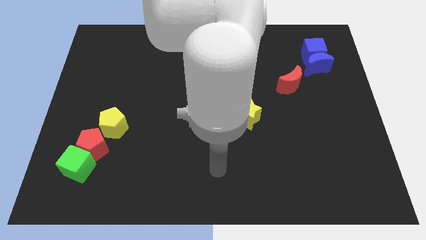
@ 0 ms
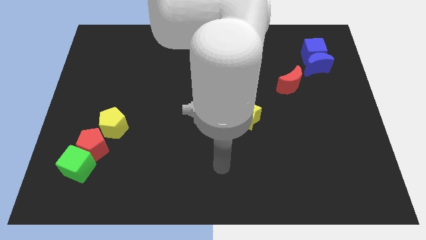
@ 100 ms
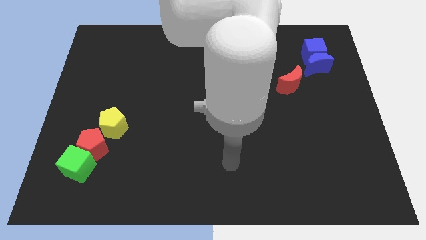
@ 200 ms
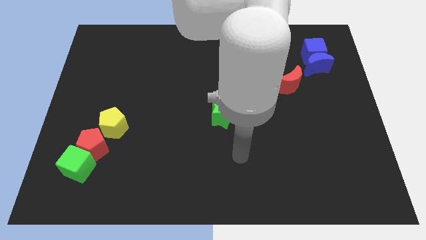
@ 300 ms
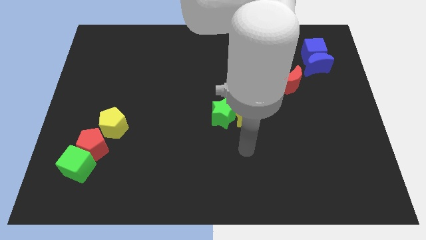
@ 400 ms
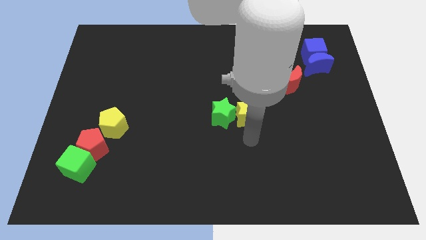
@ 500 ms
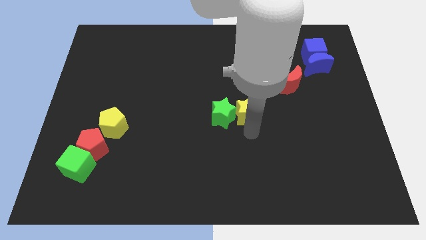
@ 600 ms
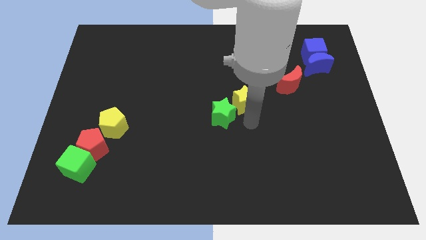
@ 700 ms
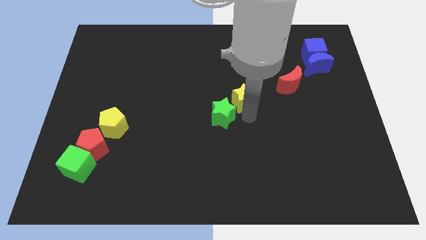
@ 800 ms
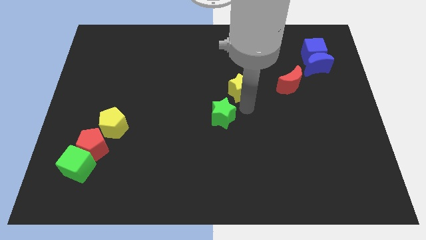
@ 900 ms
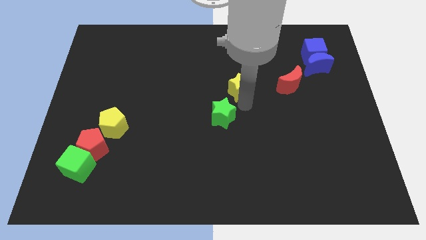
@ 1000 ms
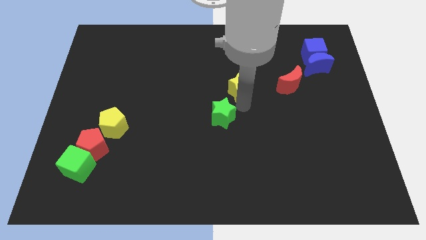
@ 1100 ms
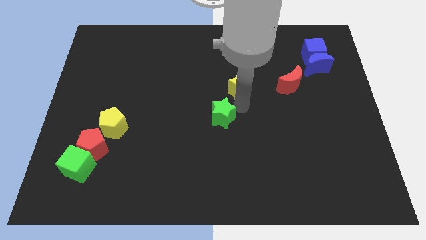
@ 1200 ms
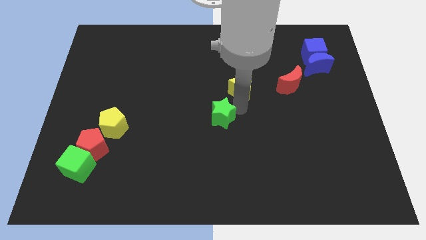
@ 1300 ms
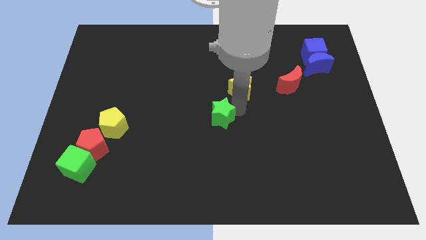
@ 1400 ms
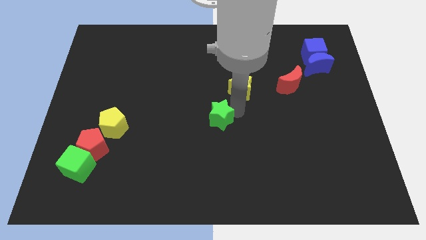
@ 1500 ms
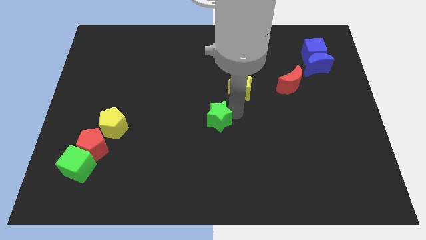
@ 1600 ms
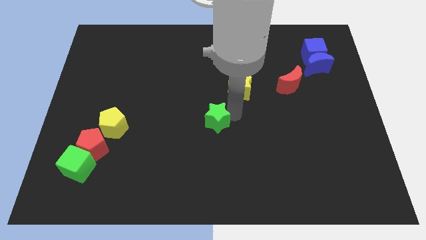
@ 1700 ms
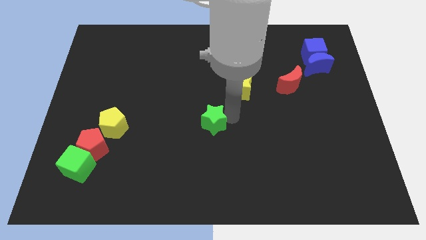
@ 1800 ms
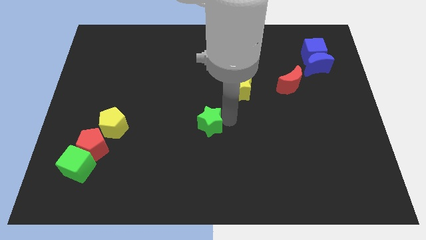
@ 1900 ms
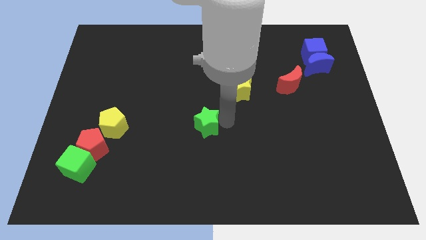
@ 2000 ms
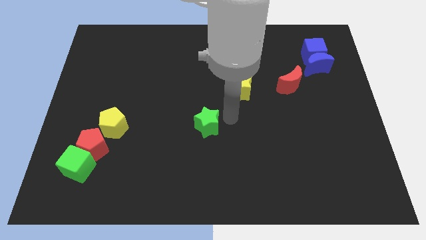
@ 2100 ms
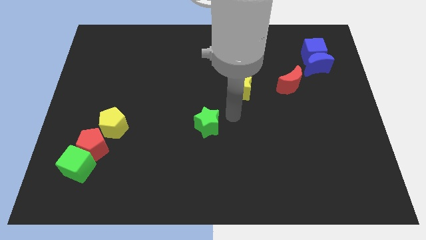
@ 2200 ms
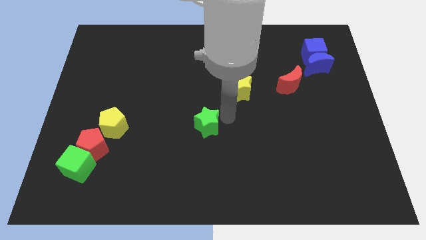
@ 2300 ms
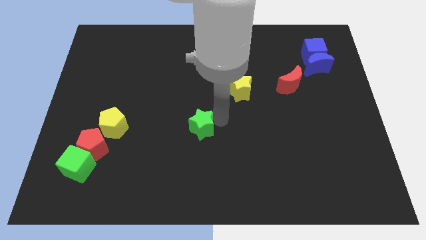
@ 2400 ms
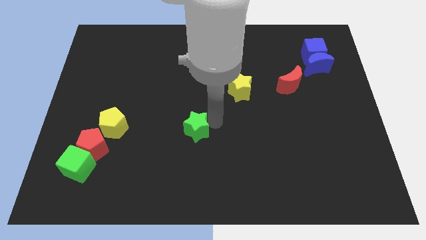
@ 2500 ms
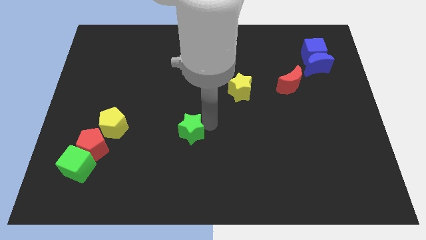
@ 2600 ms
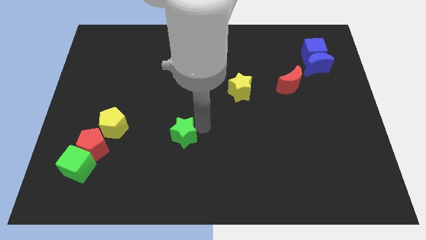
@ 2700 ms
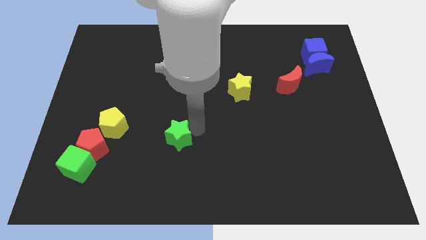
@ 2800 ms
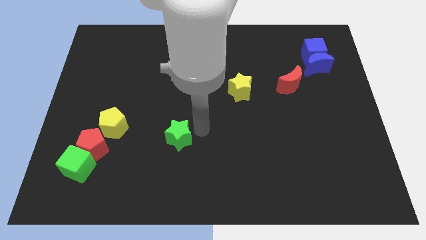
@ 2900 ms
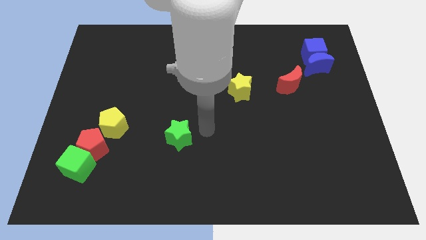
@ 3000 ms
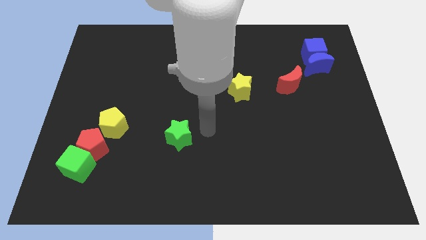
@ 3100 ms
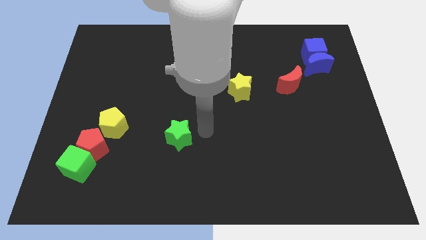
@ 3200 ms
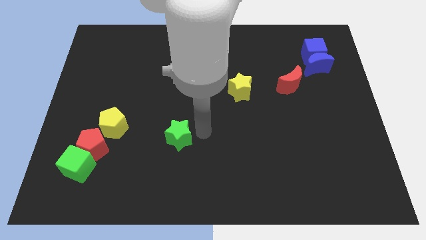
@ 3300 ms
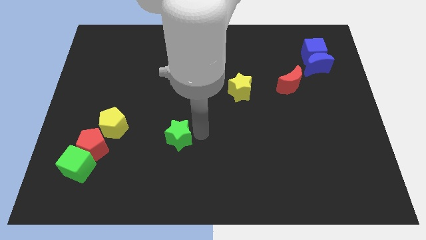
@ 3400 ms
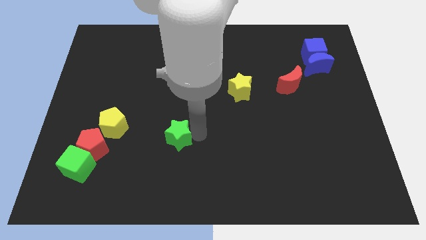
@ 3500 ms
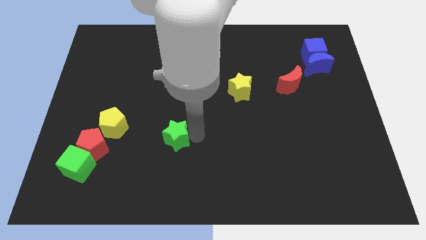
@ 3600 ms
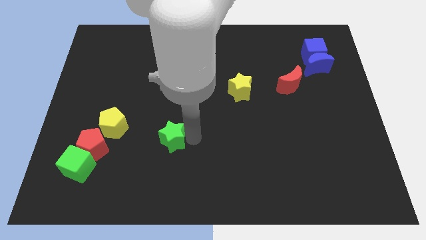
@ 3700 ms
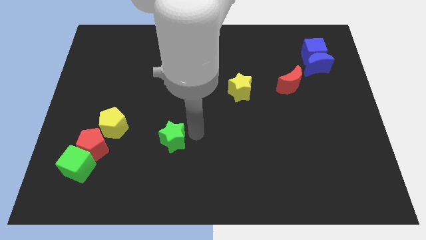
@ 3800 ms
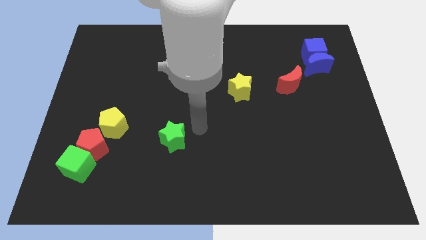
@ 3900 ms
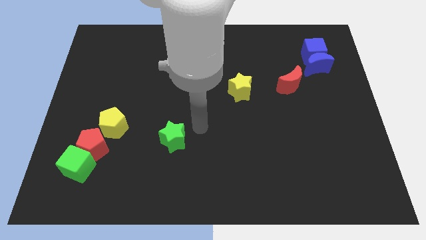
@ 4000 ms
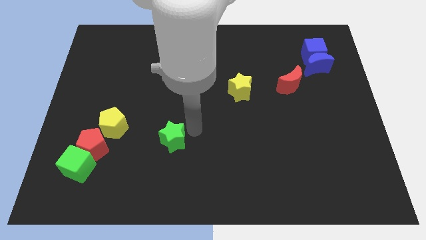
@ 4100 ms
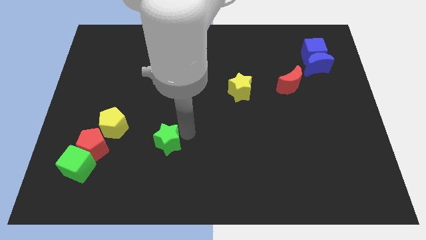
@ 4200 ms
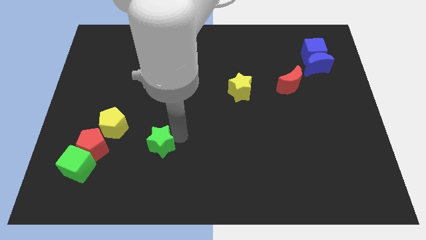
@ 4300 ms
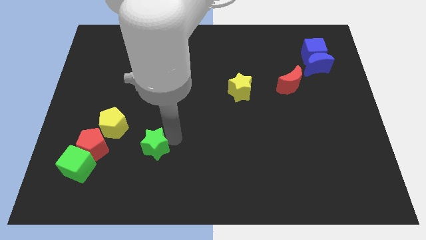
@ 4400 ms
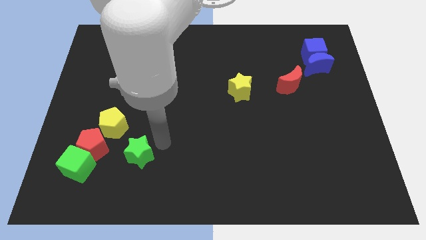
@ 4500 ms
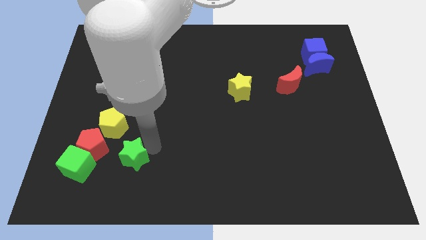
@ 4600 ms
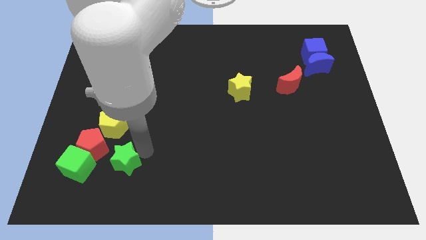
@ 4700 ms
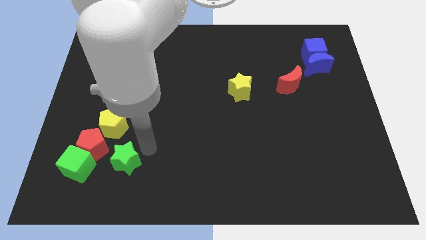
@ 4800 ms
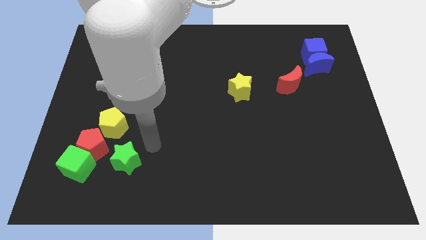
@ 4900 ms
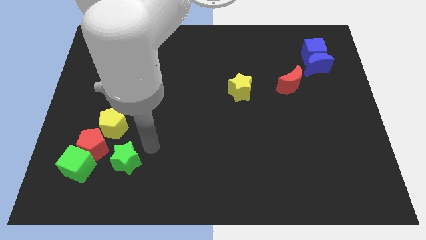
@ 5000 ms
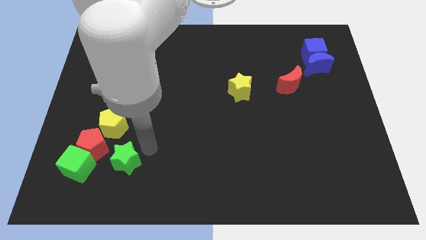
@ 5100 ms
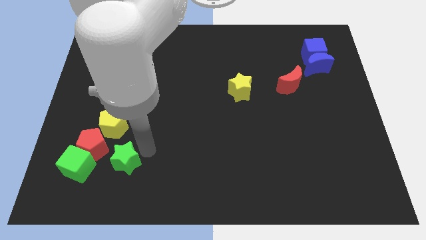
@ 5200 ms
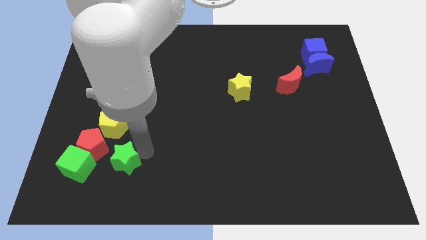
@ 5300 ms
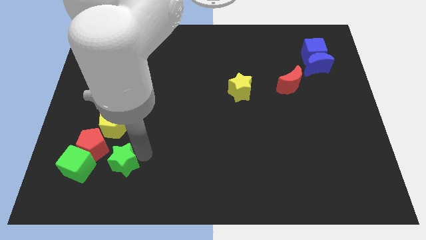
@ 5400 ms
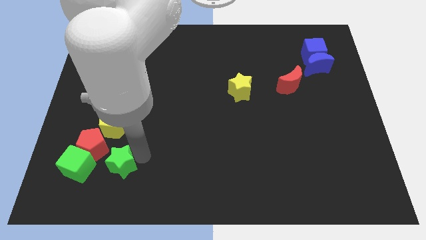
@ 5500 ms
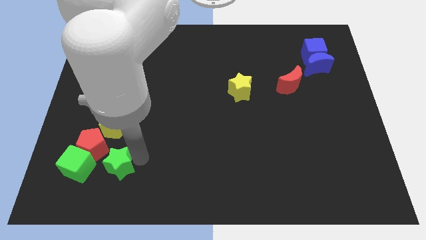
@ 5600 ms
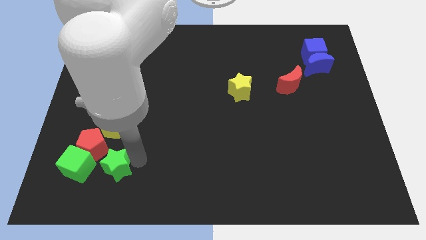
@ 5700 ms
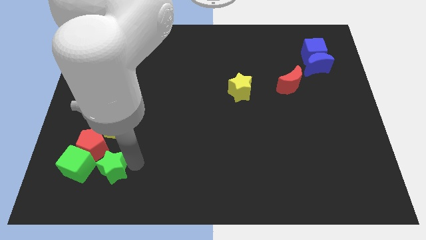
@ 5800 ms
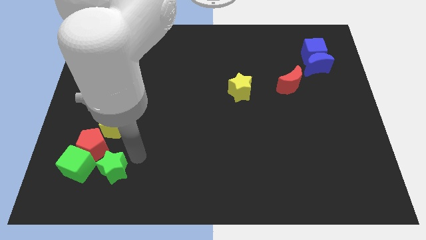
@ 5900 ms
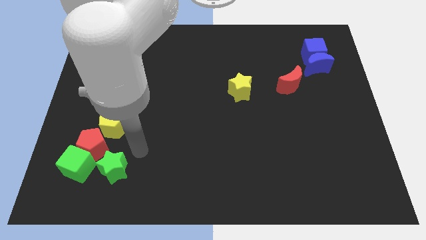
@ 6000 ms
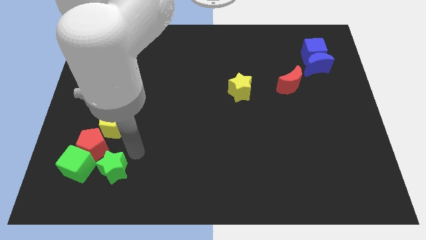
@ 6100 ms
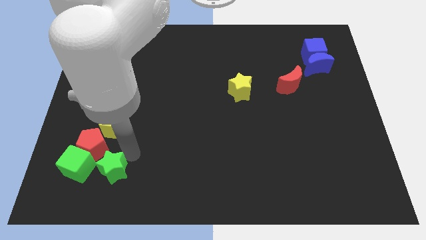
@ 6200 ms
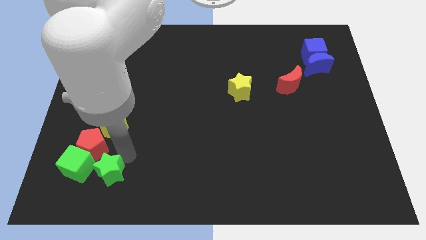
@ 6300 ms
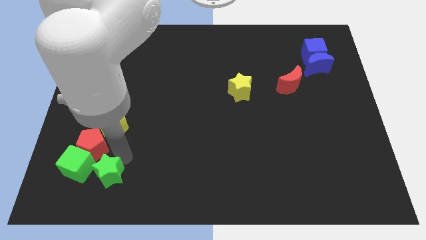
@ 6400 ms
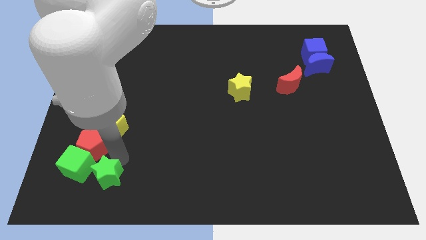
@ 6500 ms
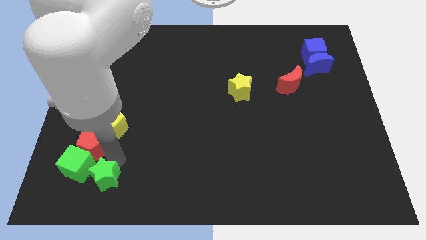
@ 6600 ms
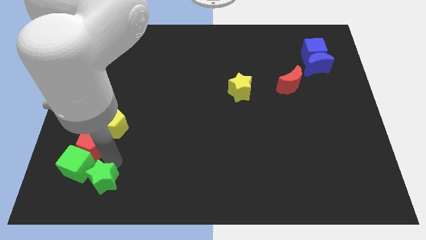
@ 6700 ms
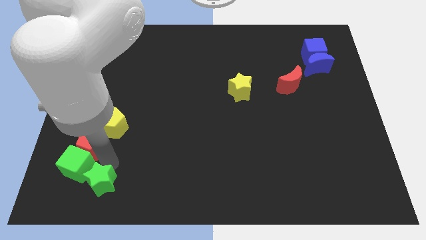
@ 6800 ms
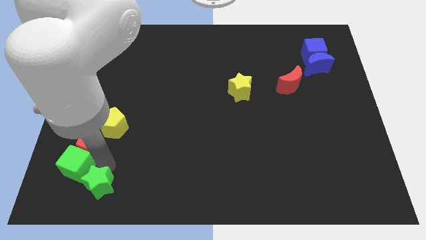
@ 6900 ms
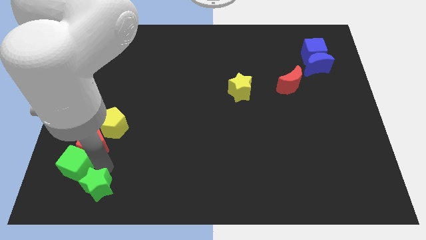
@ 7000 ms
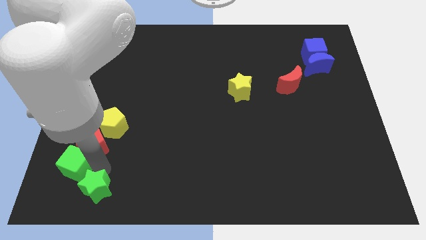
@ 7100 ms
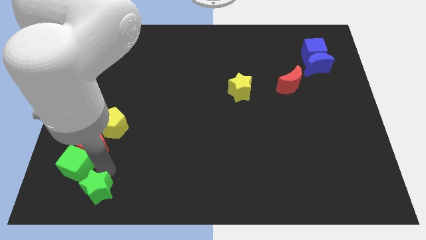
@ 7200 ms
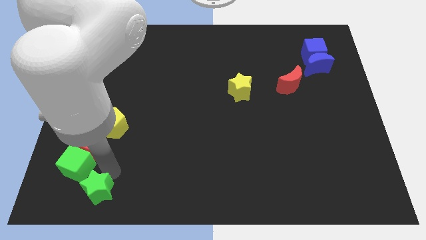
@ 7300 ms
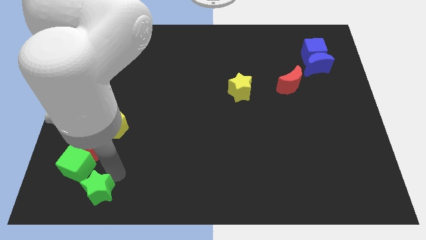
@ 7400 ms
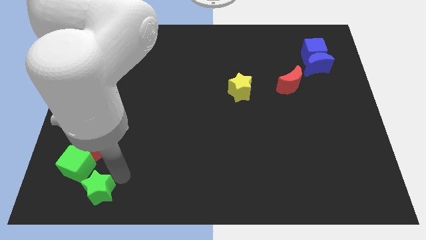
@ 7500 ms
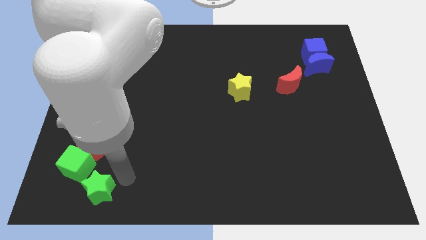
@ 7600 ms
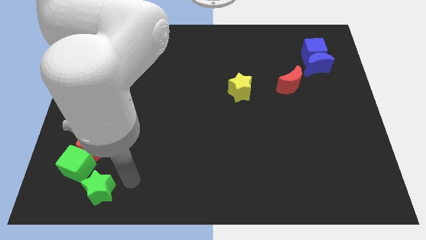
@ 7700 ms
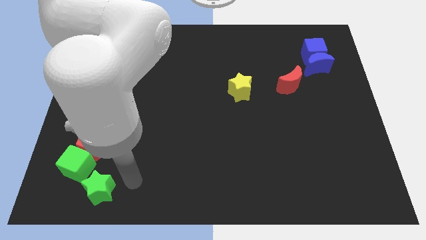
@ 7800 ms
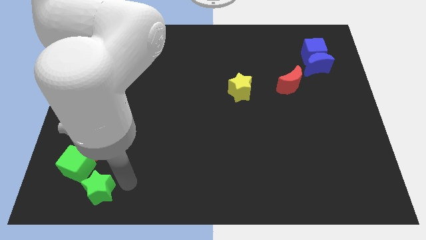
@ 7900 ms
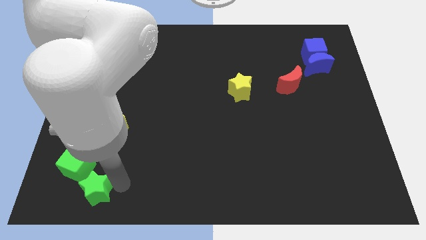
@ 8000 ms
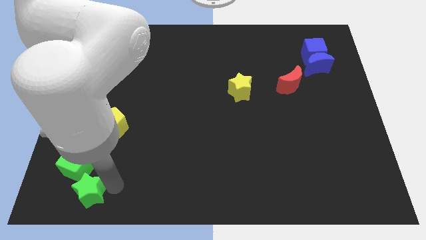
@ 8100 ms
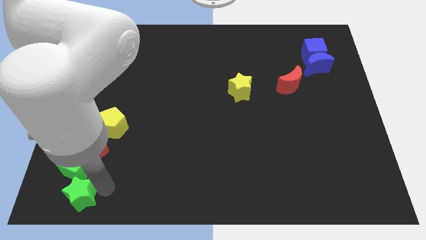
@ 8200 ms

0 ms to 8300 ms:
put the green star to the lower left corner
